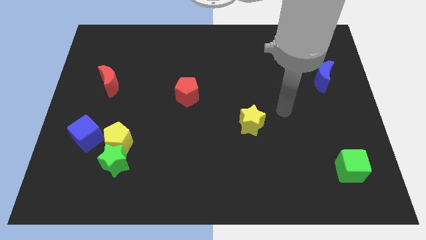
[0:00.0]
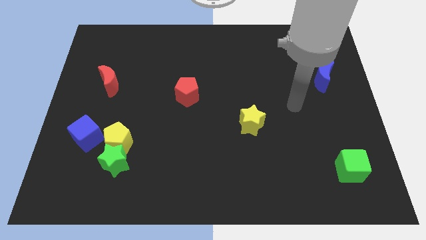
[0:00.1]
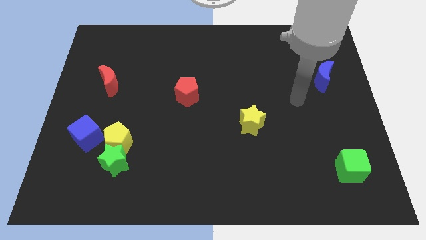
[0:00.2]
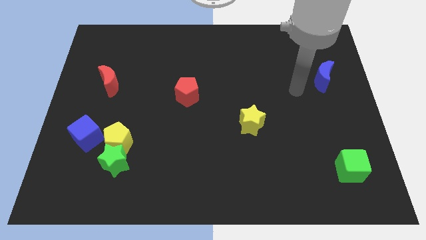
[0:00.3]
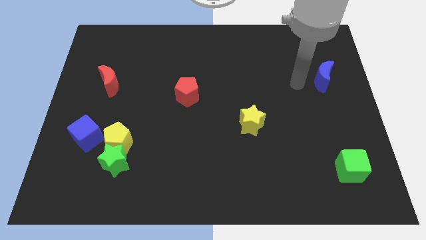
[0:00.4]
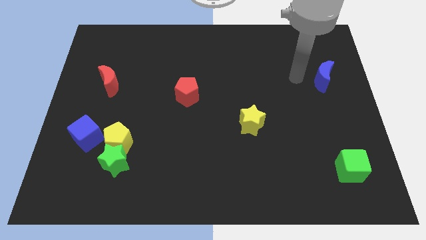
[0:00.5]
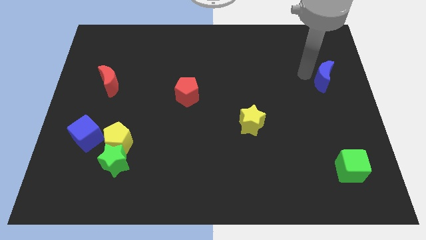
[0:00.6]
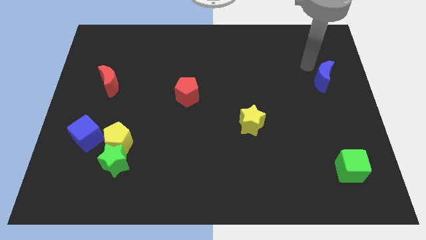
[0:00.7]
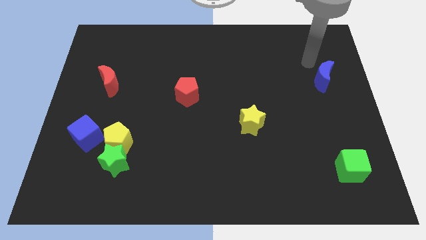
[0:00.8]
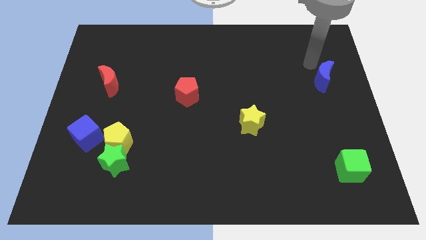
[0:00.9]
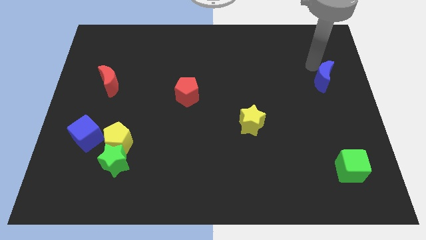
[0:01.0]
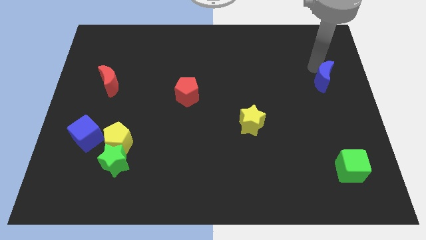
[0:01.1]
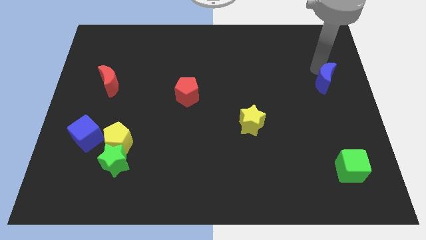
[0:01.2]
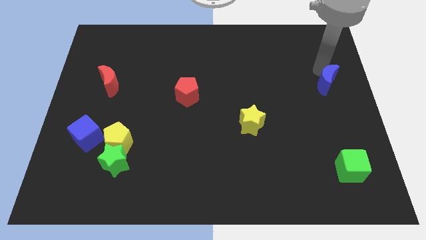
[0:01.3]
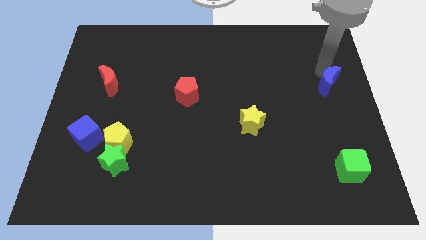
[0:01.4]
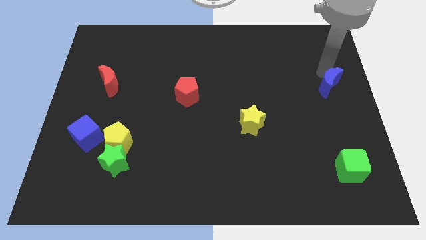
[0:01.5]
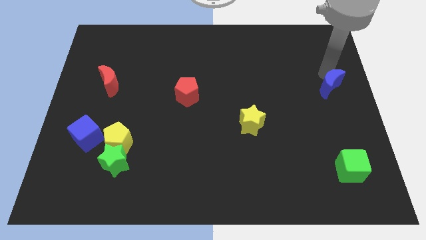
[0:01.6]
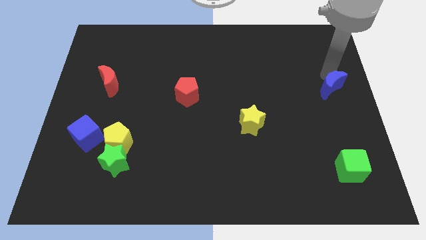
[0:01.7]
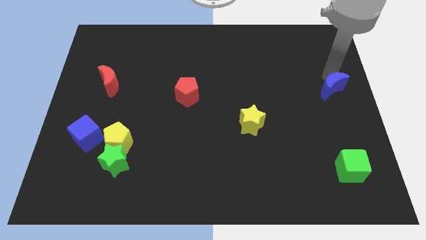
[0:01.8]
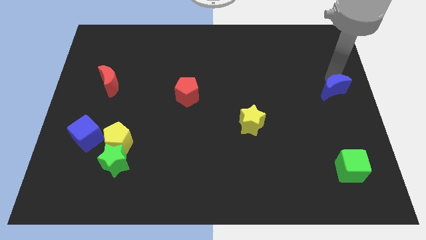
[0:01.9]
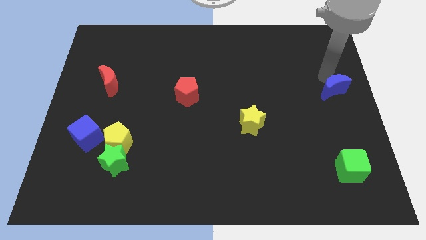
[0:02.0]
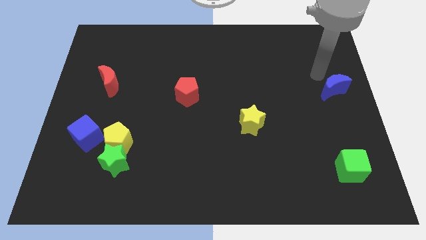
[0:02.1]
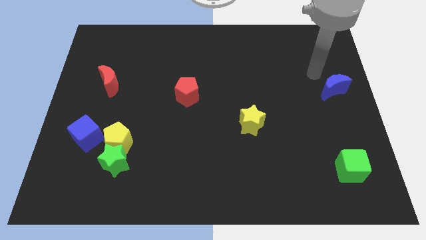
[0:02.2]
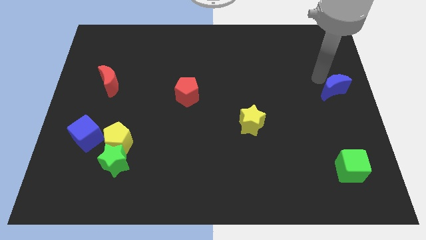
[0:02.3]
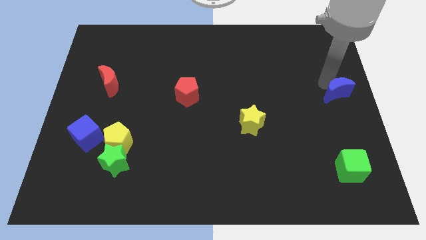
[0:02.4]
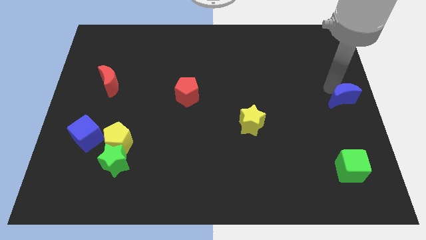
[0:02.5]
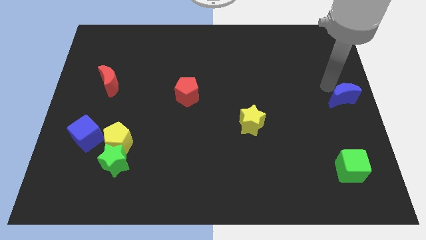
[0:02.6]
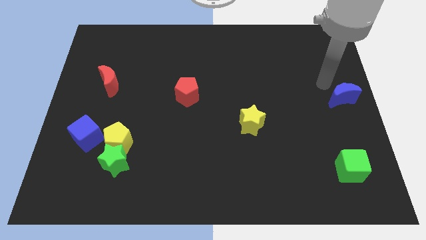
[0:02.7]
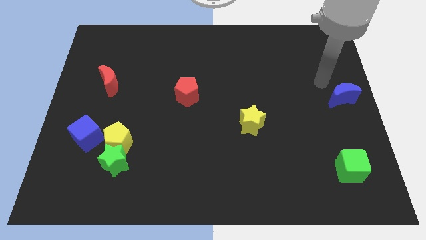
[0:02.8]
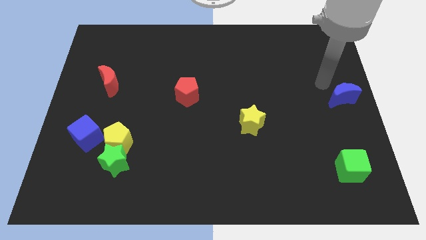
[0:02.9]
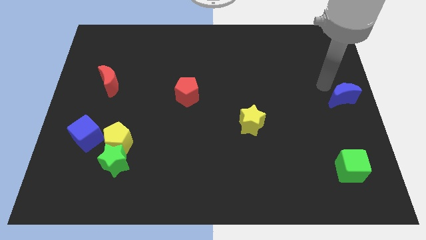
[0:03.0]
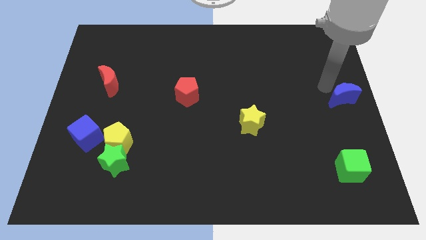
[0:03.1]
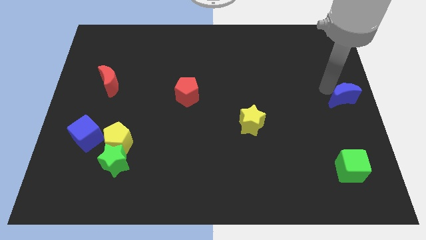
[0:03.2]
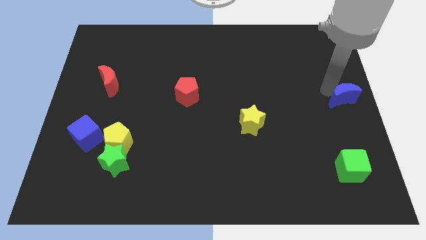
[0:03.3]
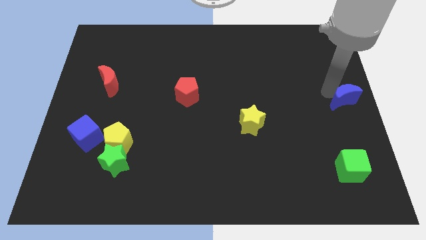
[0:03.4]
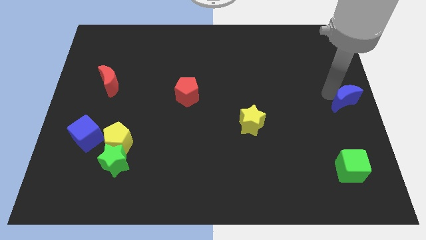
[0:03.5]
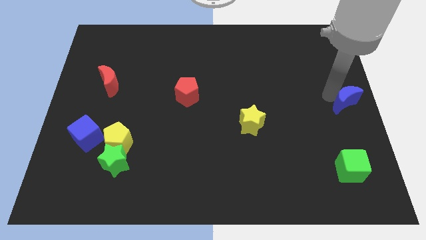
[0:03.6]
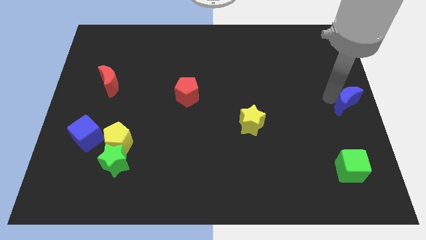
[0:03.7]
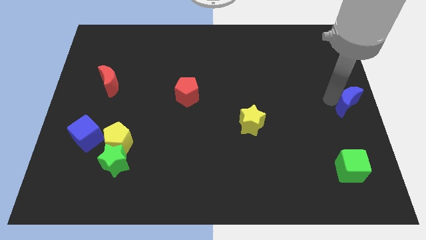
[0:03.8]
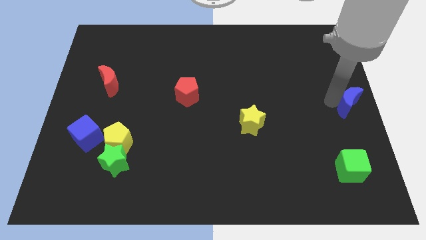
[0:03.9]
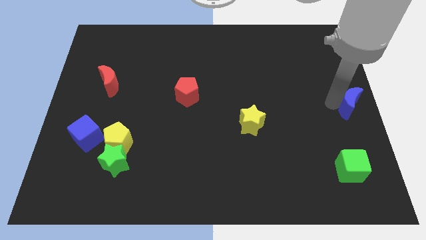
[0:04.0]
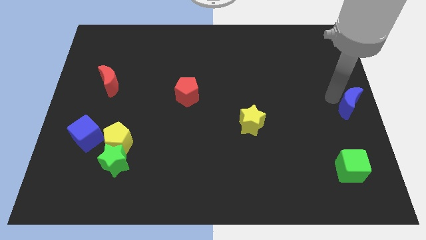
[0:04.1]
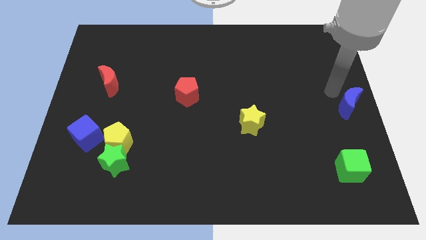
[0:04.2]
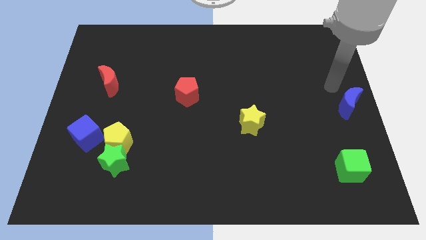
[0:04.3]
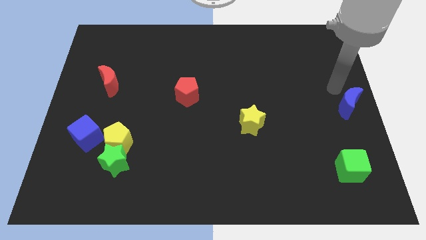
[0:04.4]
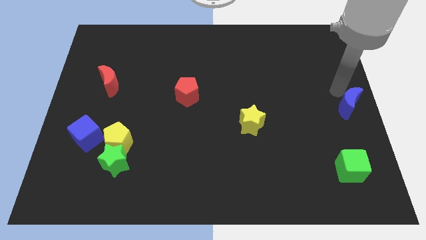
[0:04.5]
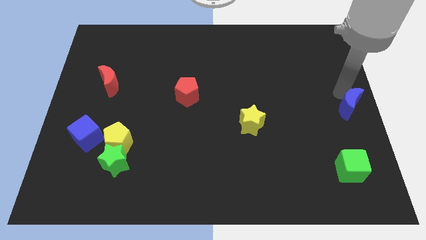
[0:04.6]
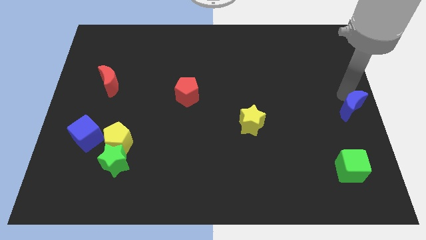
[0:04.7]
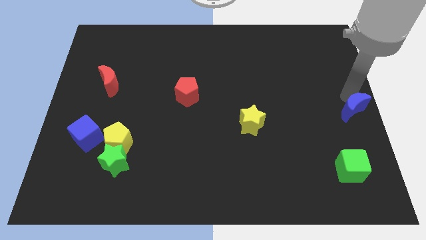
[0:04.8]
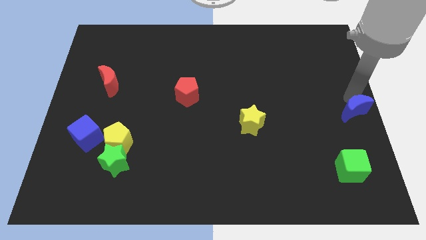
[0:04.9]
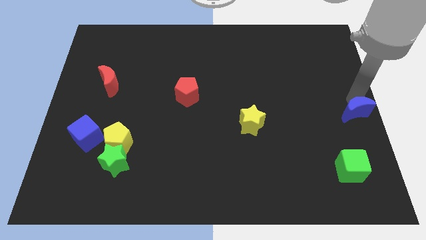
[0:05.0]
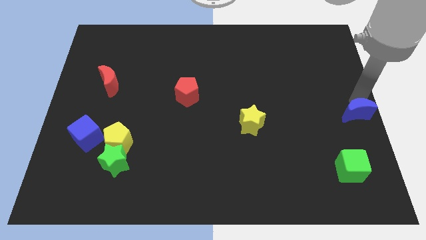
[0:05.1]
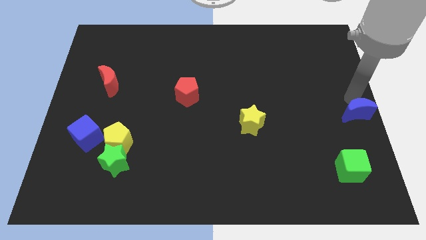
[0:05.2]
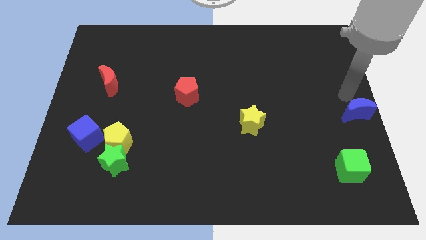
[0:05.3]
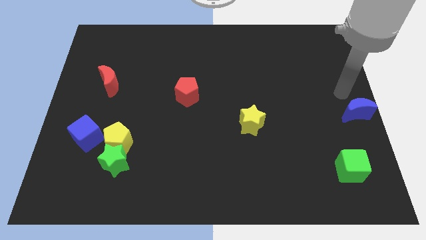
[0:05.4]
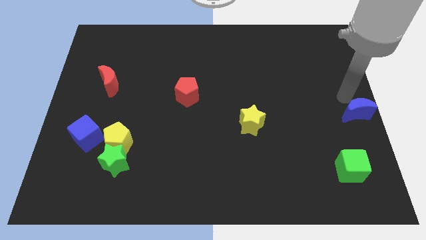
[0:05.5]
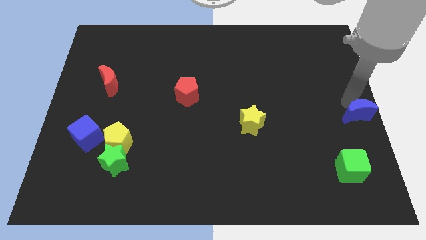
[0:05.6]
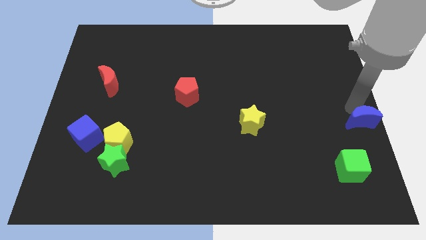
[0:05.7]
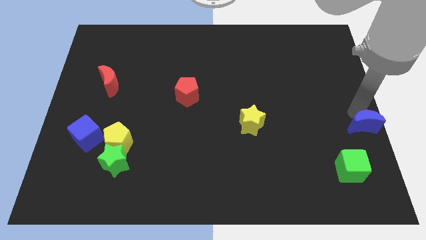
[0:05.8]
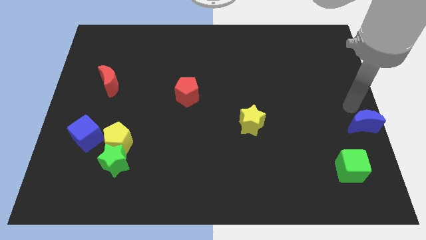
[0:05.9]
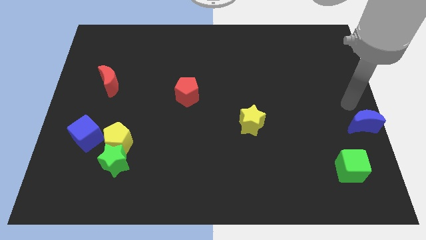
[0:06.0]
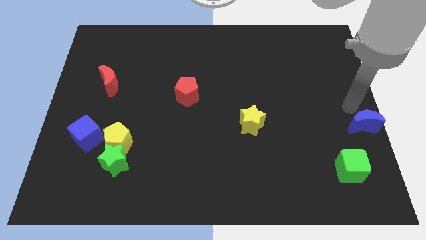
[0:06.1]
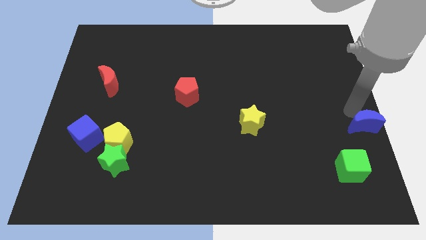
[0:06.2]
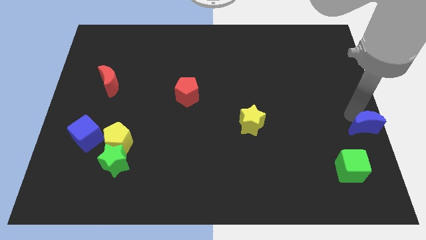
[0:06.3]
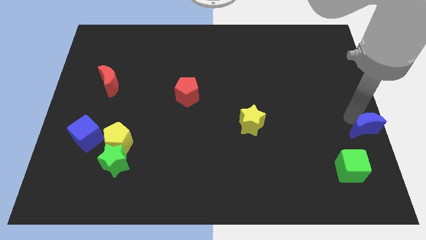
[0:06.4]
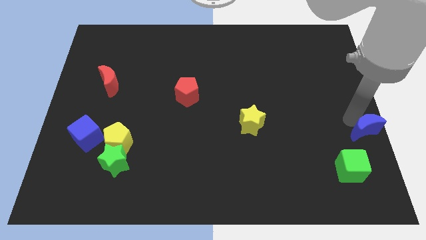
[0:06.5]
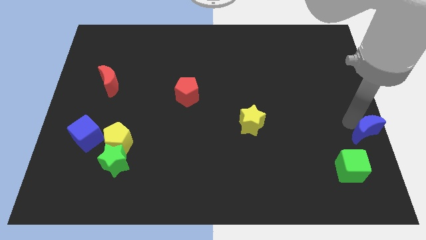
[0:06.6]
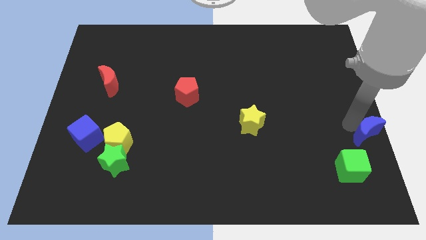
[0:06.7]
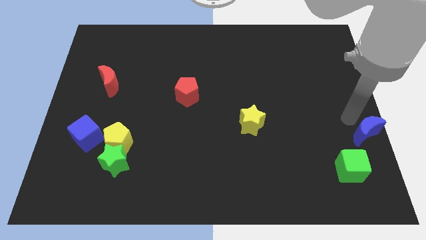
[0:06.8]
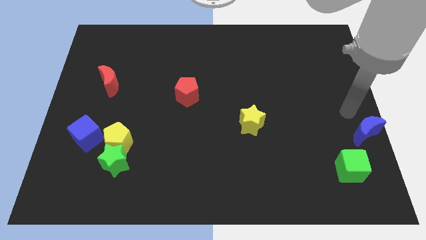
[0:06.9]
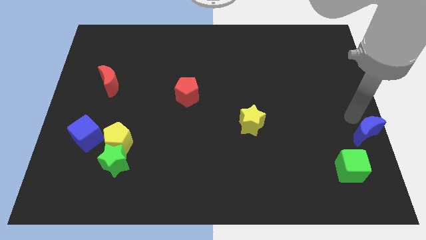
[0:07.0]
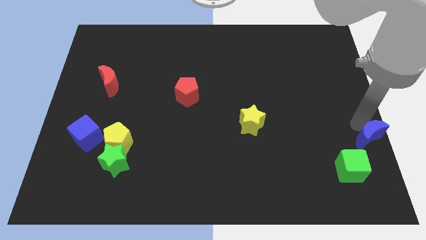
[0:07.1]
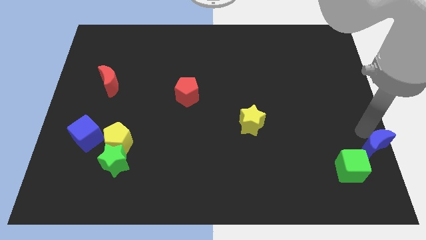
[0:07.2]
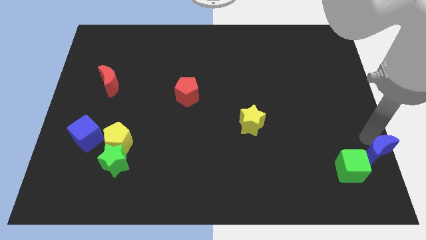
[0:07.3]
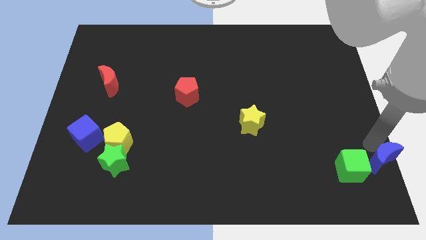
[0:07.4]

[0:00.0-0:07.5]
push the blue moon to the lower right corner
